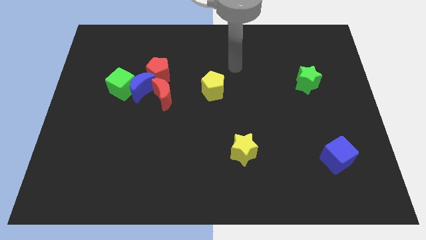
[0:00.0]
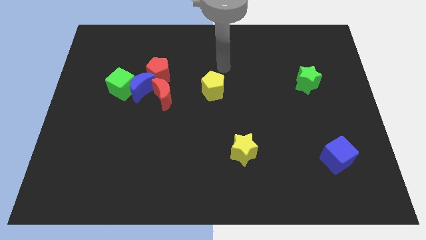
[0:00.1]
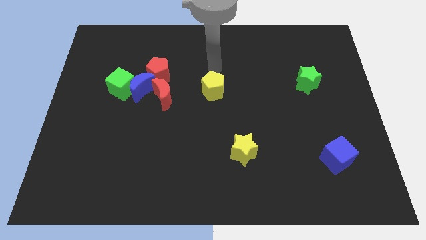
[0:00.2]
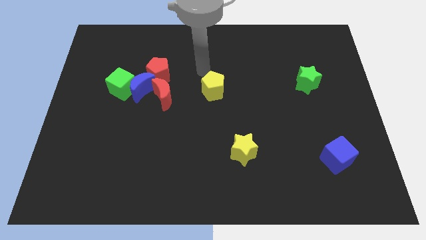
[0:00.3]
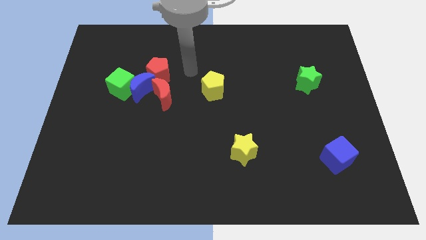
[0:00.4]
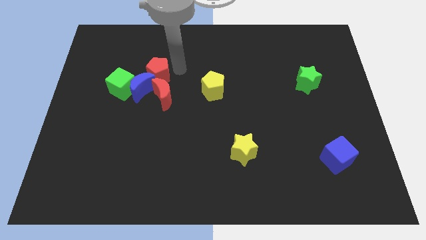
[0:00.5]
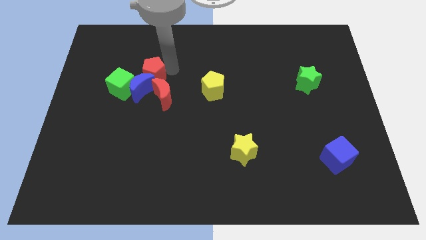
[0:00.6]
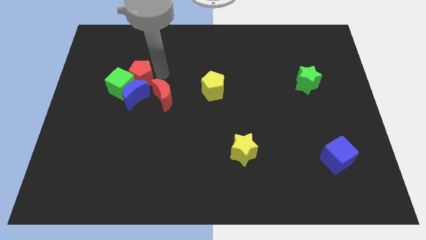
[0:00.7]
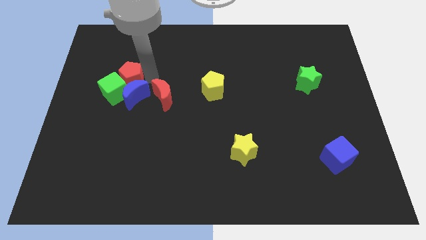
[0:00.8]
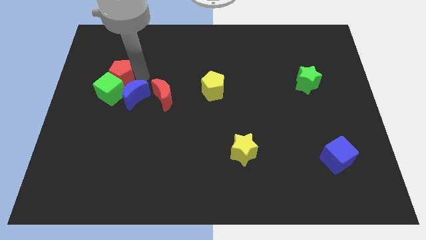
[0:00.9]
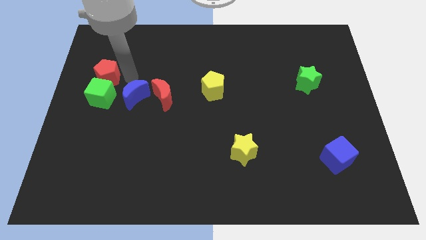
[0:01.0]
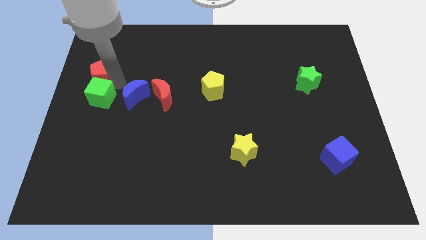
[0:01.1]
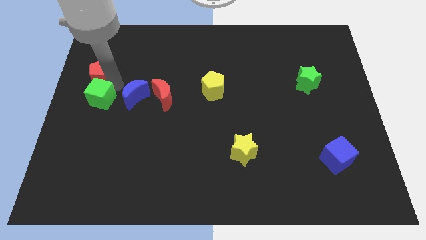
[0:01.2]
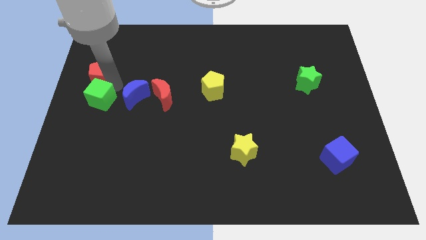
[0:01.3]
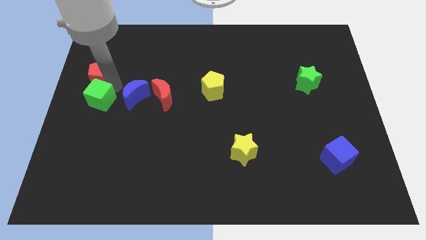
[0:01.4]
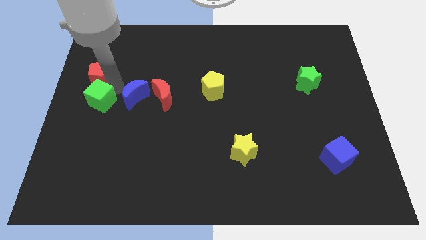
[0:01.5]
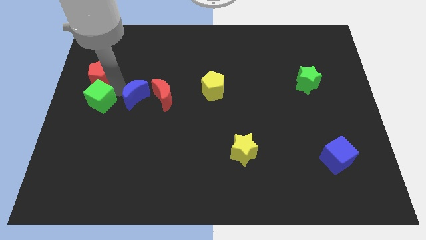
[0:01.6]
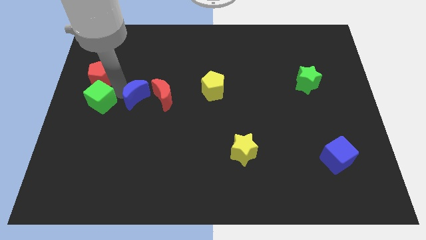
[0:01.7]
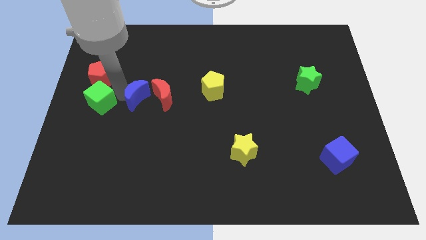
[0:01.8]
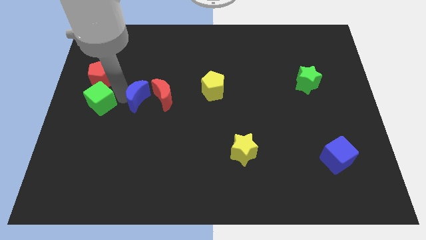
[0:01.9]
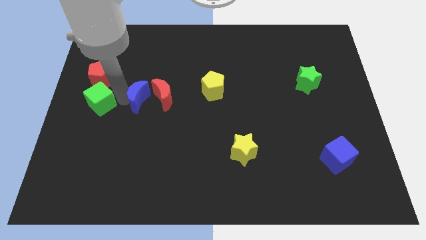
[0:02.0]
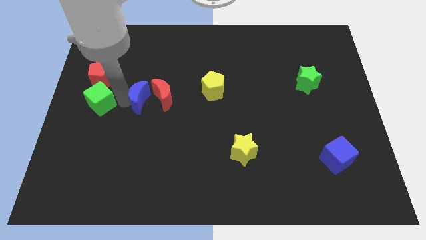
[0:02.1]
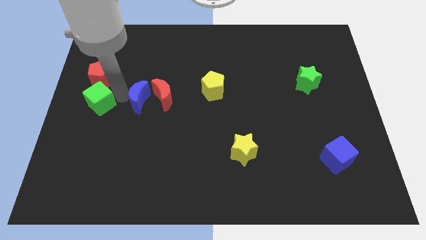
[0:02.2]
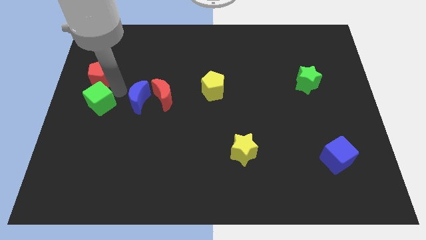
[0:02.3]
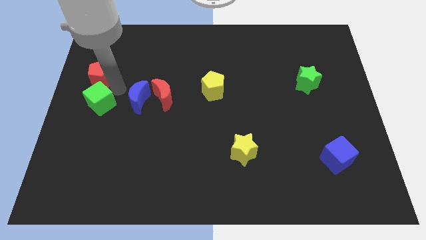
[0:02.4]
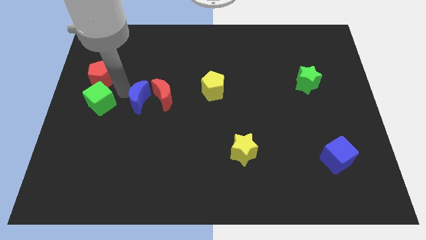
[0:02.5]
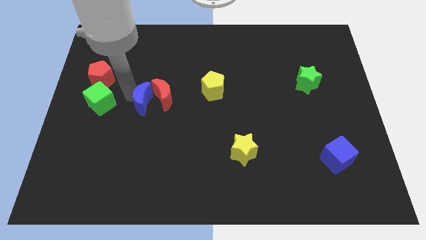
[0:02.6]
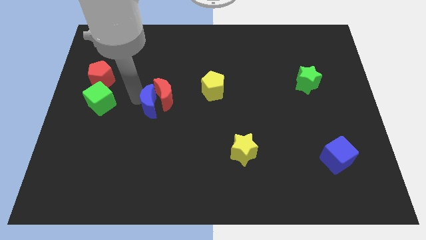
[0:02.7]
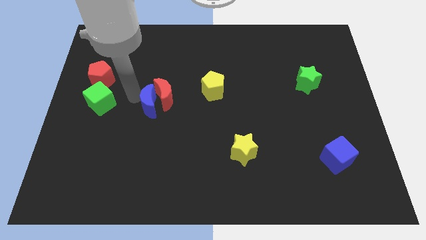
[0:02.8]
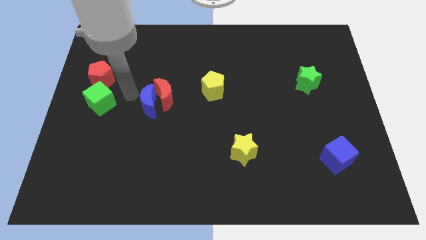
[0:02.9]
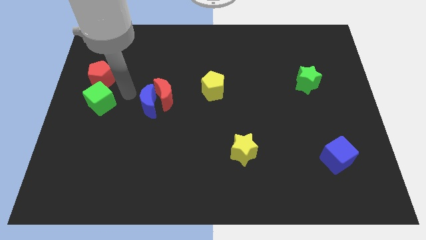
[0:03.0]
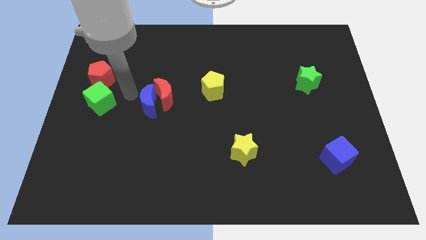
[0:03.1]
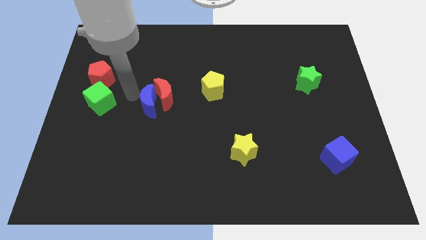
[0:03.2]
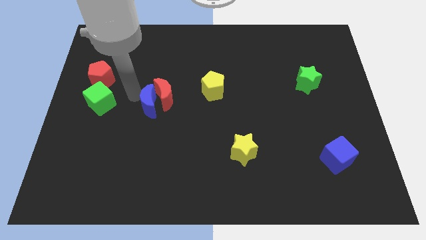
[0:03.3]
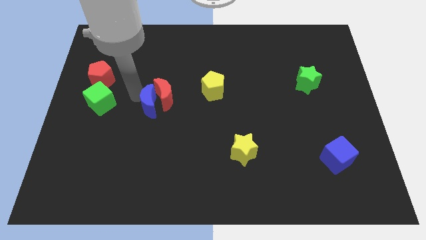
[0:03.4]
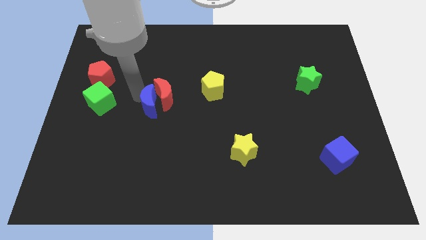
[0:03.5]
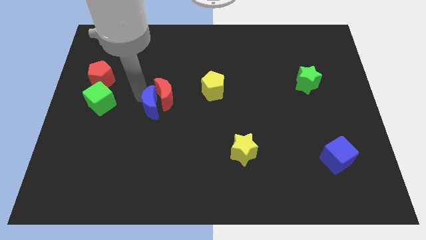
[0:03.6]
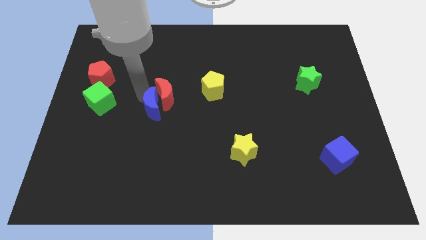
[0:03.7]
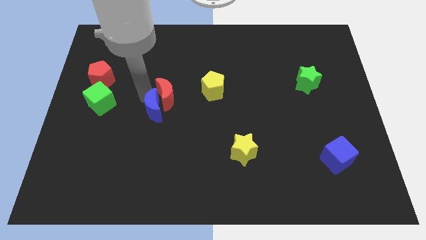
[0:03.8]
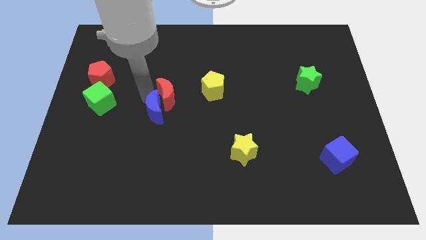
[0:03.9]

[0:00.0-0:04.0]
move the blue moon away from the green cube, red moon, and red pentagon

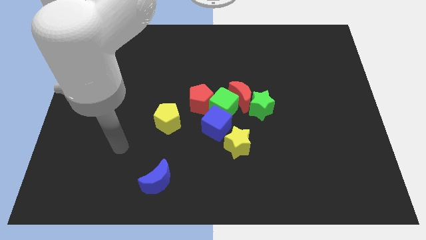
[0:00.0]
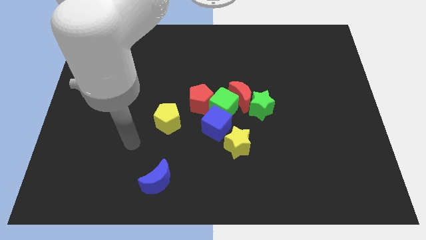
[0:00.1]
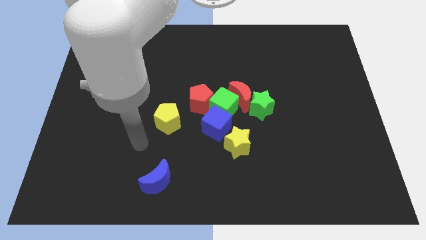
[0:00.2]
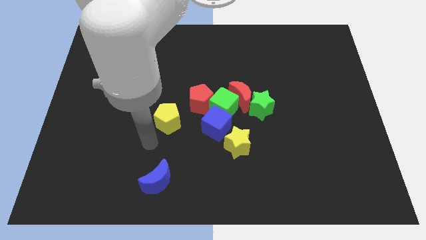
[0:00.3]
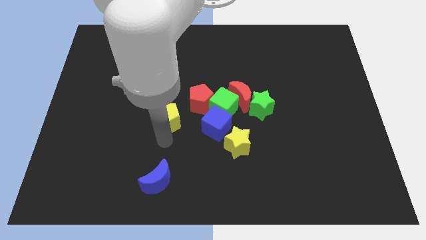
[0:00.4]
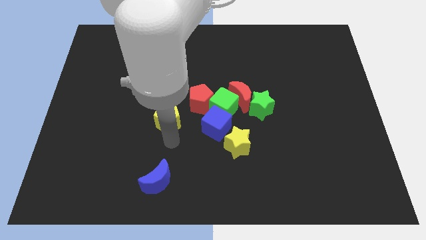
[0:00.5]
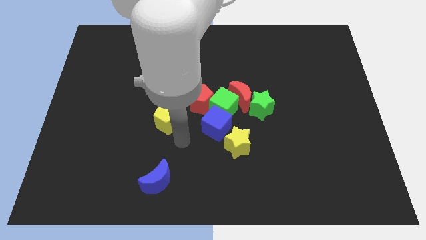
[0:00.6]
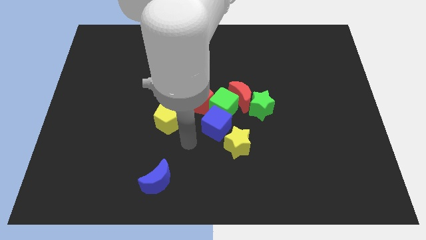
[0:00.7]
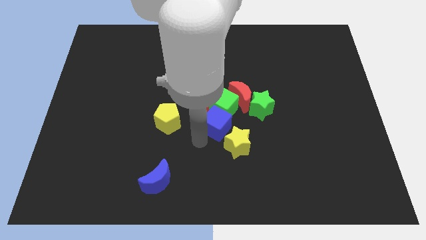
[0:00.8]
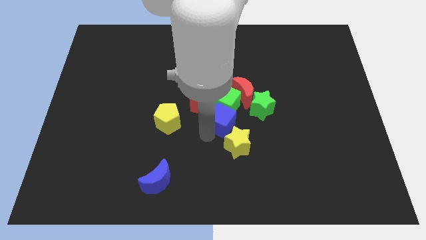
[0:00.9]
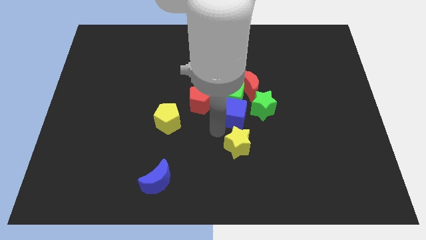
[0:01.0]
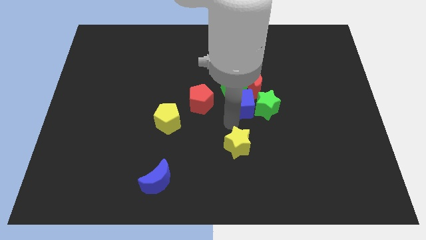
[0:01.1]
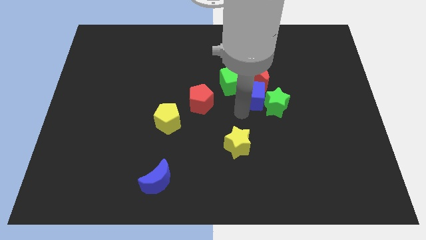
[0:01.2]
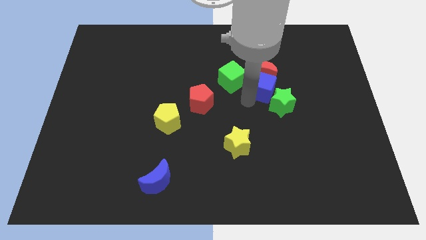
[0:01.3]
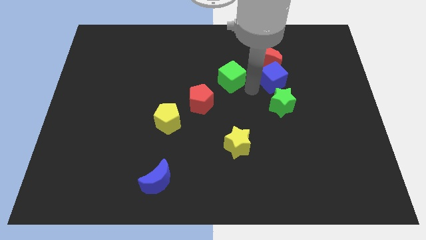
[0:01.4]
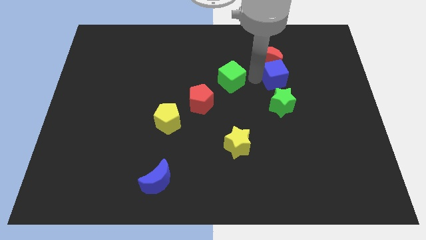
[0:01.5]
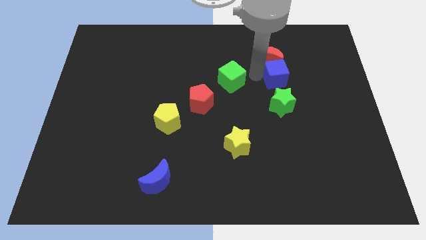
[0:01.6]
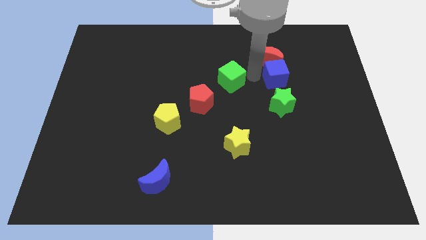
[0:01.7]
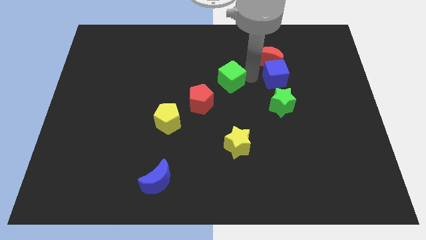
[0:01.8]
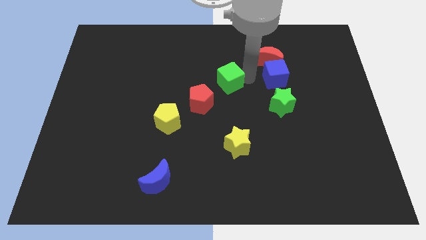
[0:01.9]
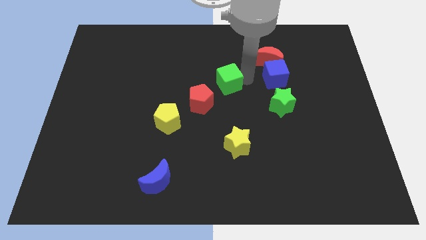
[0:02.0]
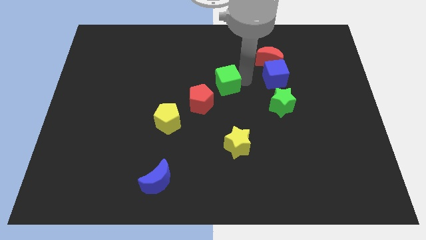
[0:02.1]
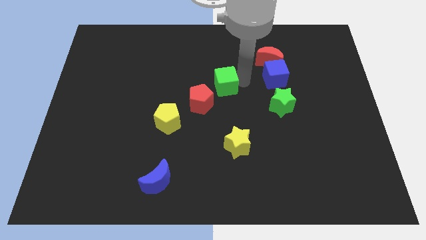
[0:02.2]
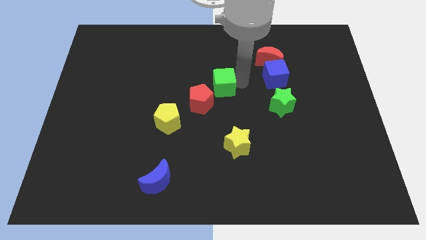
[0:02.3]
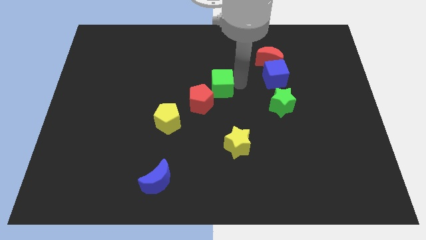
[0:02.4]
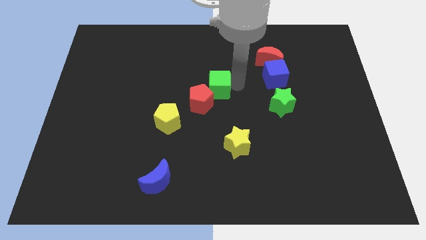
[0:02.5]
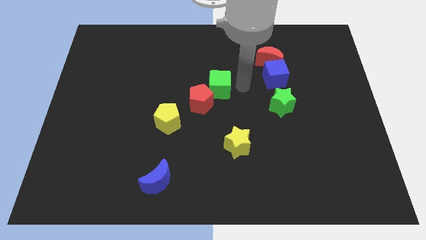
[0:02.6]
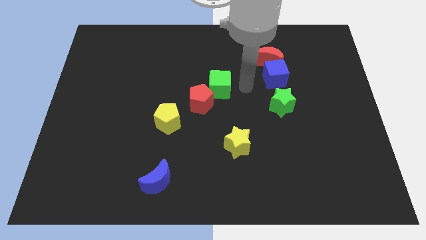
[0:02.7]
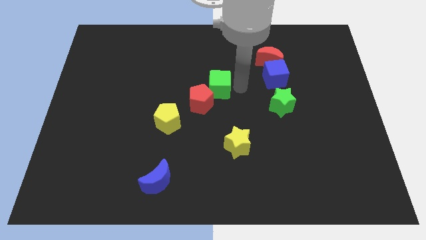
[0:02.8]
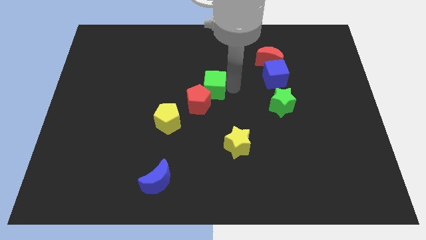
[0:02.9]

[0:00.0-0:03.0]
separate the green cube from the group

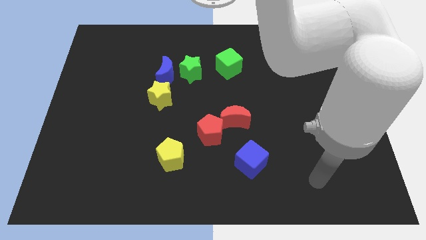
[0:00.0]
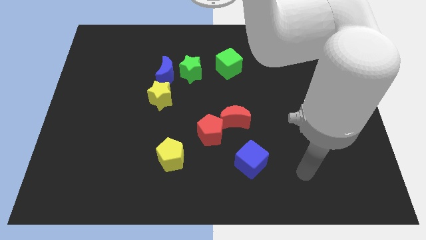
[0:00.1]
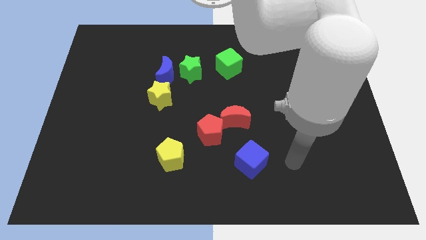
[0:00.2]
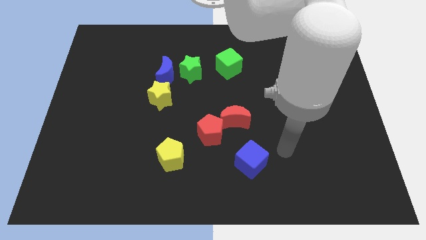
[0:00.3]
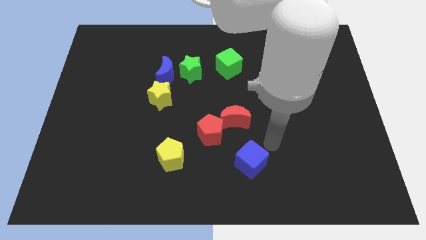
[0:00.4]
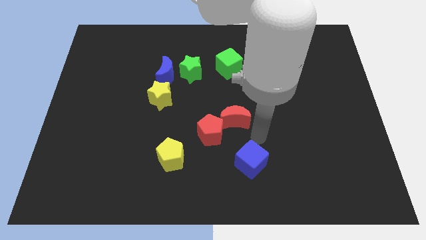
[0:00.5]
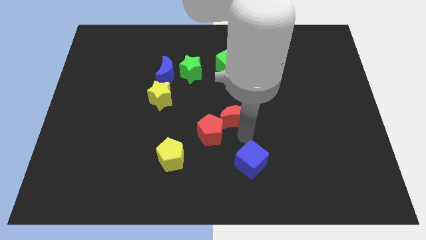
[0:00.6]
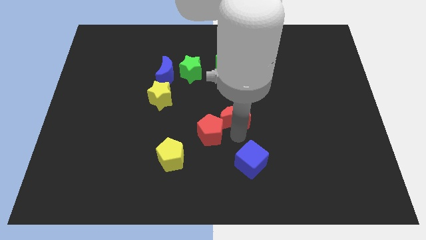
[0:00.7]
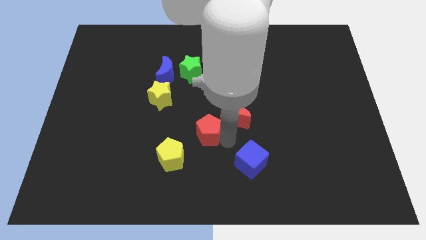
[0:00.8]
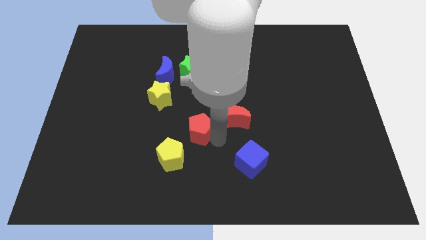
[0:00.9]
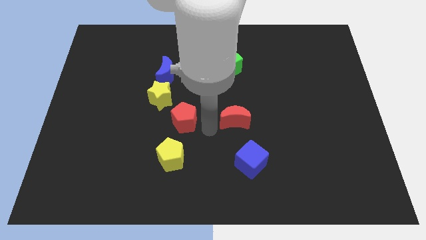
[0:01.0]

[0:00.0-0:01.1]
separate the red moon from the red pentagon

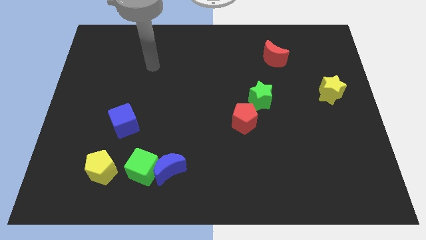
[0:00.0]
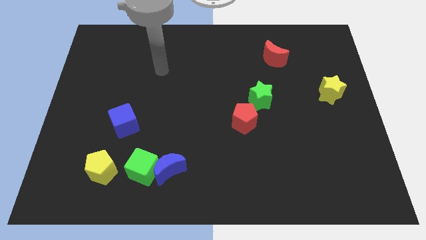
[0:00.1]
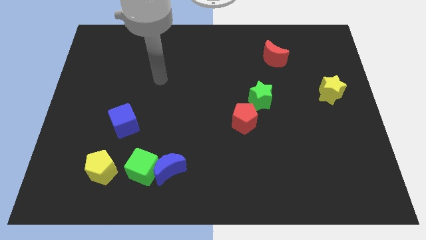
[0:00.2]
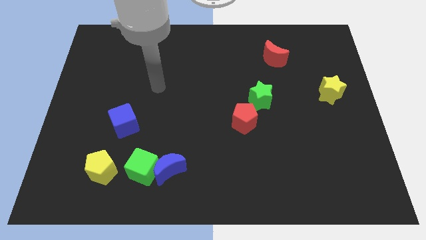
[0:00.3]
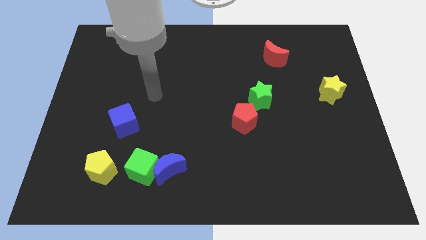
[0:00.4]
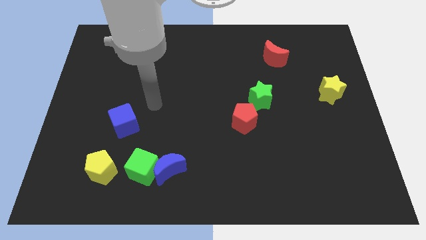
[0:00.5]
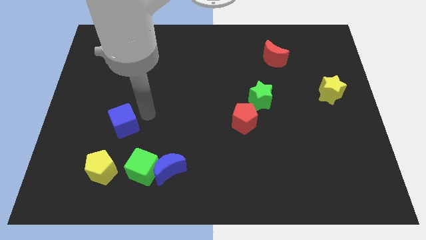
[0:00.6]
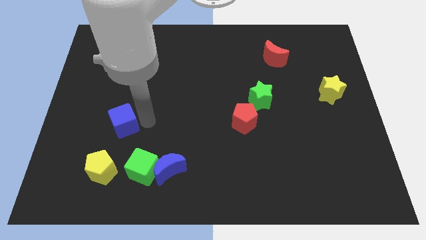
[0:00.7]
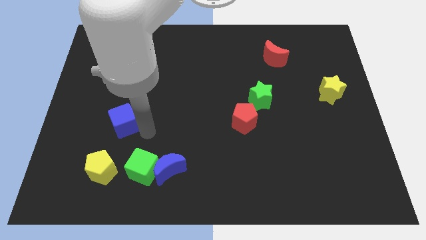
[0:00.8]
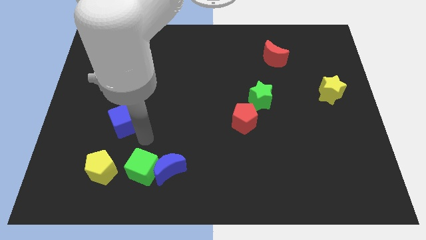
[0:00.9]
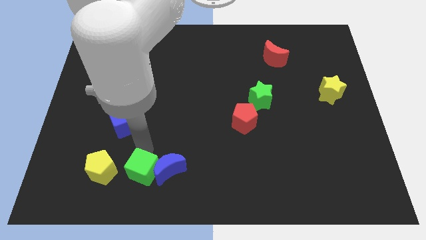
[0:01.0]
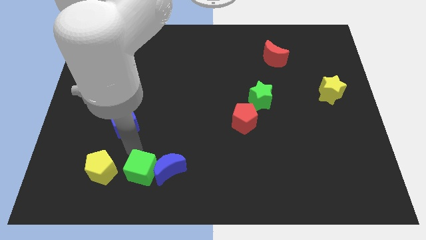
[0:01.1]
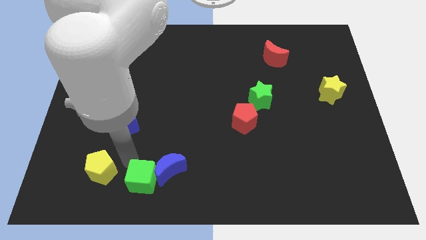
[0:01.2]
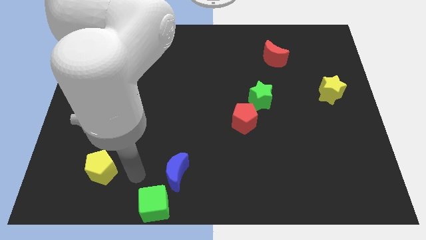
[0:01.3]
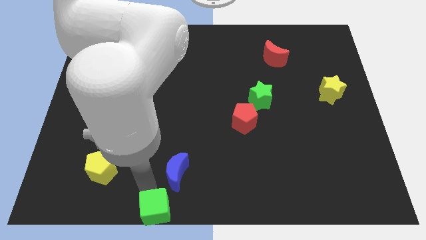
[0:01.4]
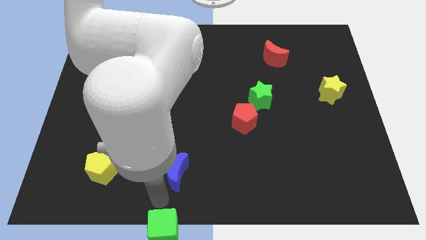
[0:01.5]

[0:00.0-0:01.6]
pull the blue moon apart from the green cube
